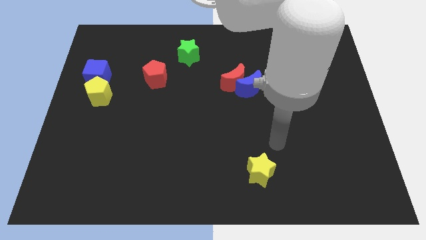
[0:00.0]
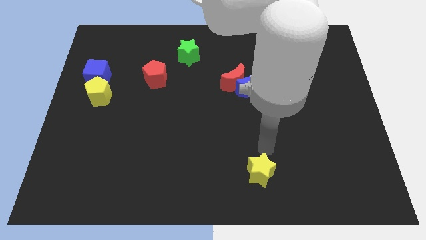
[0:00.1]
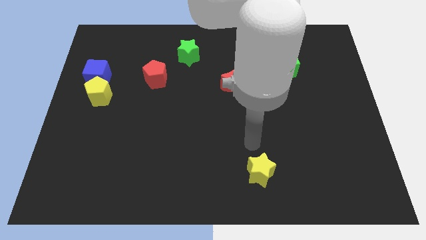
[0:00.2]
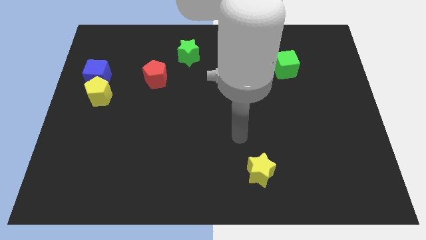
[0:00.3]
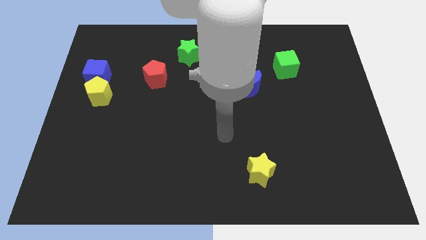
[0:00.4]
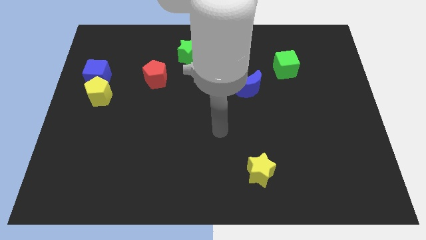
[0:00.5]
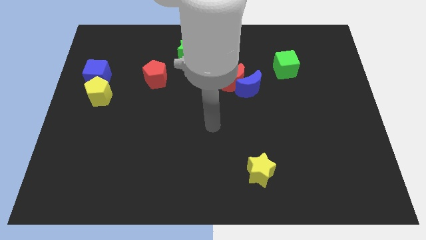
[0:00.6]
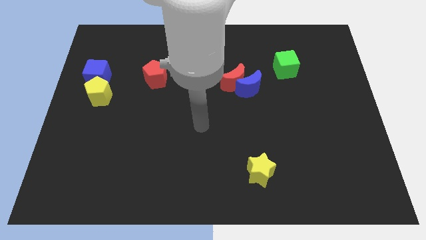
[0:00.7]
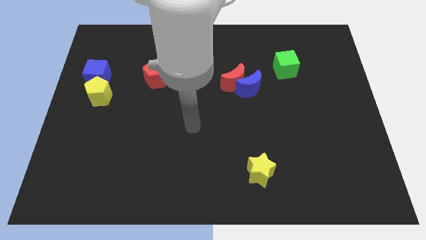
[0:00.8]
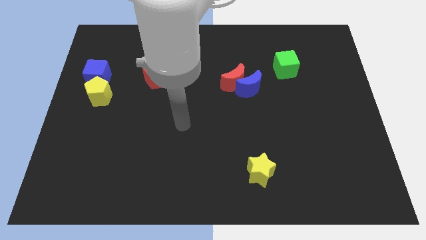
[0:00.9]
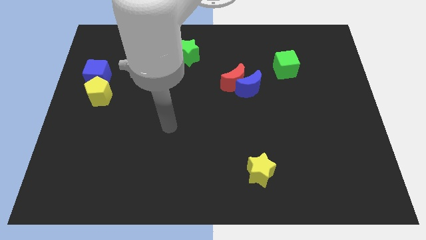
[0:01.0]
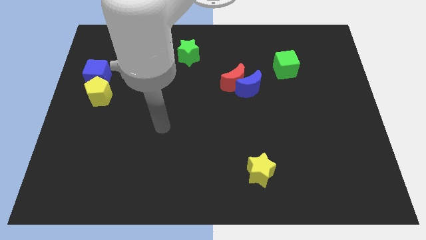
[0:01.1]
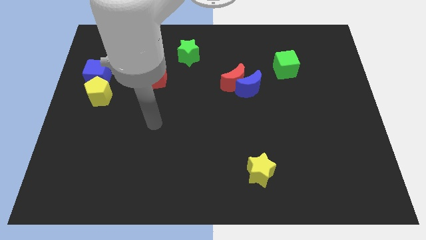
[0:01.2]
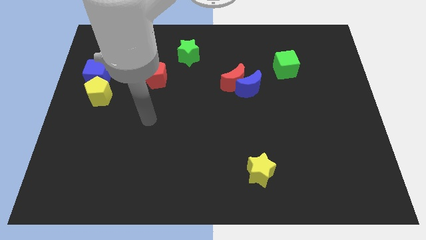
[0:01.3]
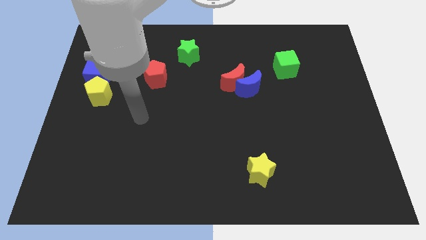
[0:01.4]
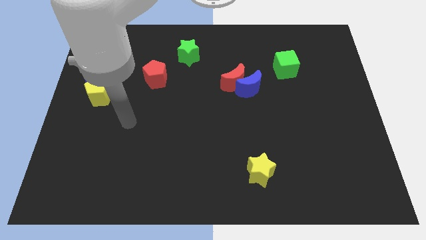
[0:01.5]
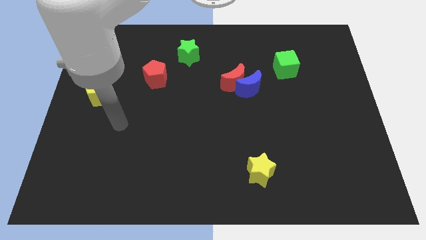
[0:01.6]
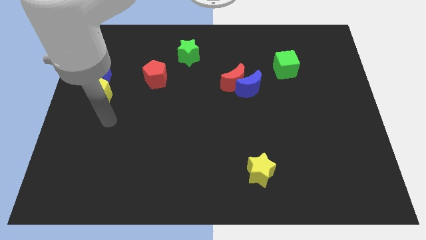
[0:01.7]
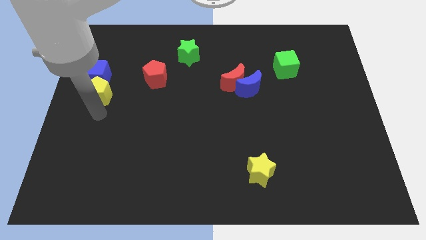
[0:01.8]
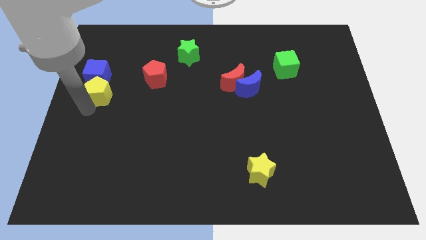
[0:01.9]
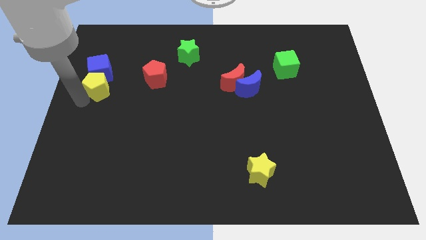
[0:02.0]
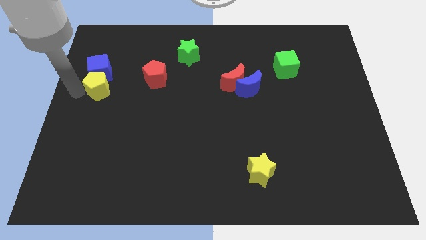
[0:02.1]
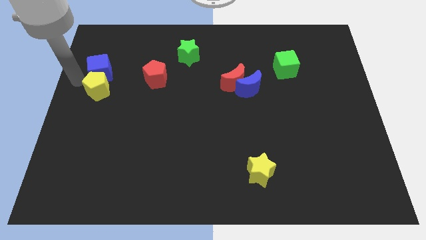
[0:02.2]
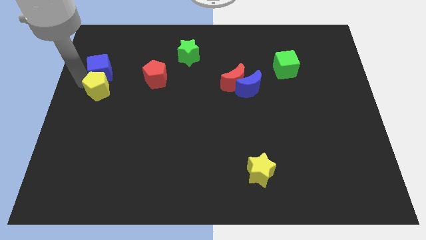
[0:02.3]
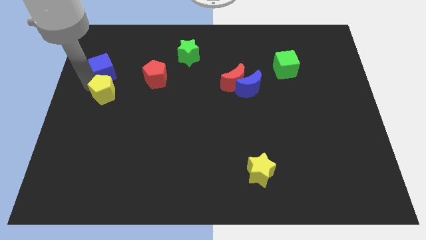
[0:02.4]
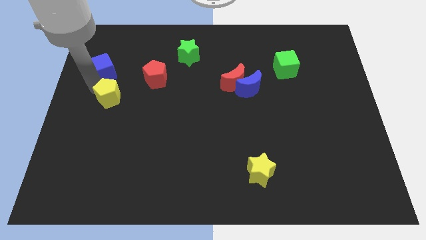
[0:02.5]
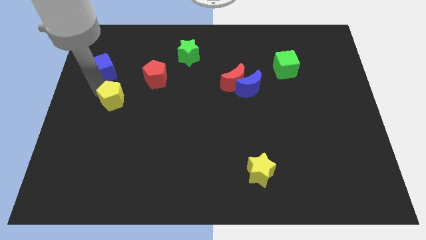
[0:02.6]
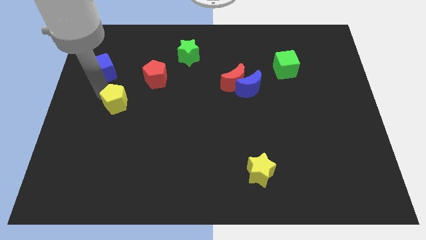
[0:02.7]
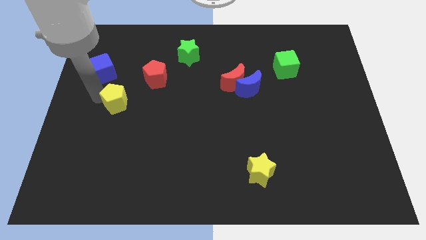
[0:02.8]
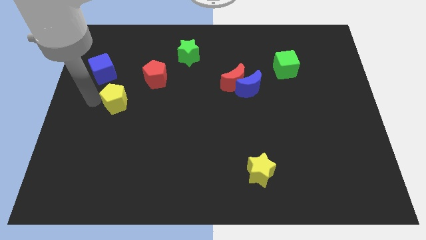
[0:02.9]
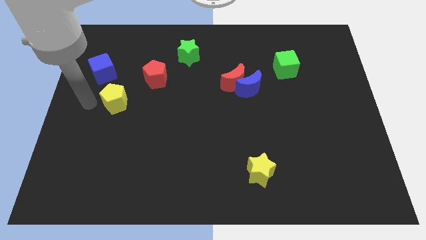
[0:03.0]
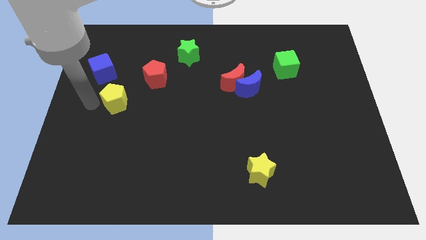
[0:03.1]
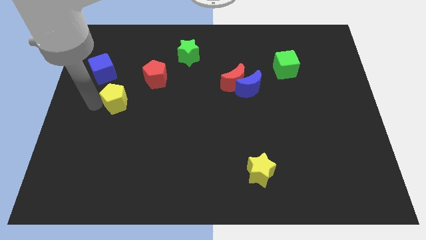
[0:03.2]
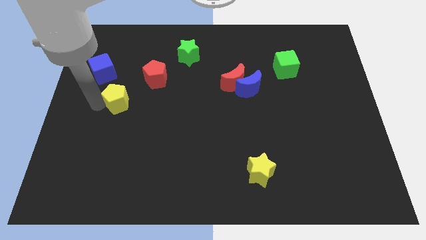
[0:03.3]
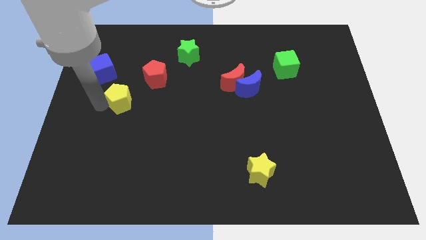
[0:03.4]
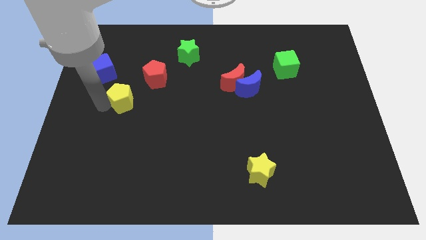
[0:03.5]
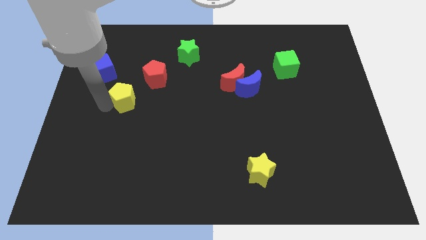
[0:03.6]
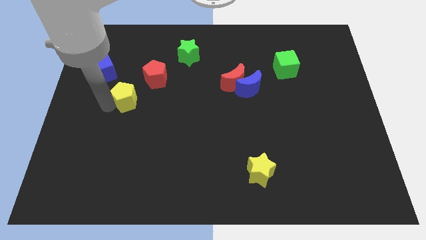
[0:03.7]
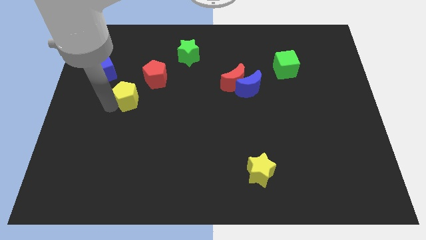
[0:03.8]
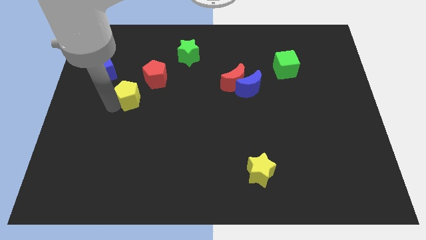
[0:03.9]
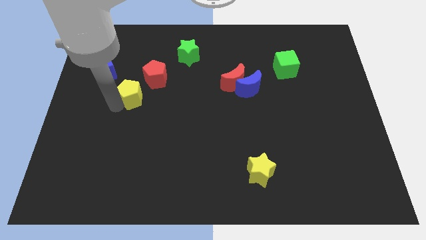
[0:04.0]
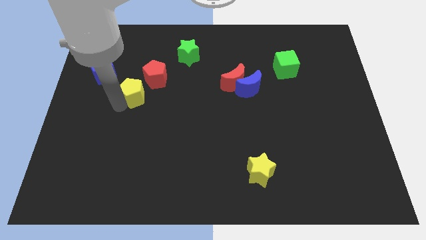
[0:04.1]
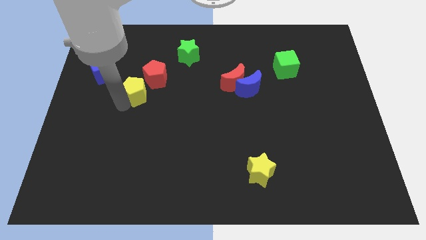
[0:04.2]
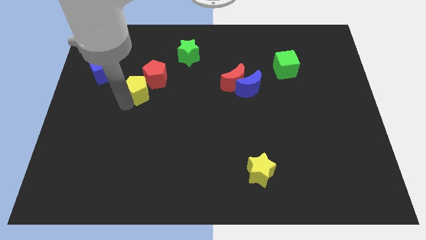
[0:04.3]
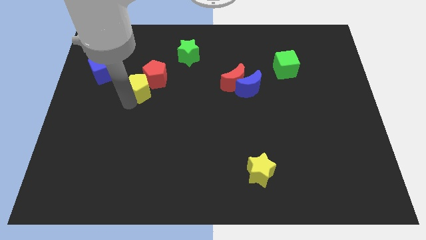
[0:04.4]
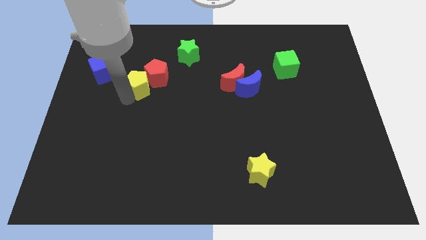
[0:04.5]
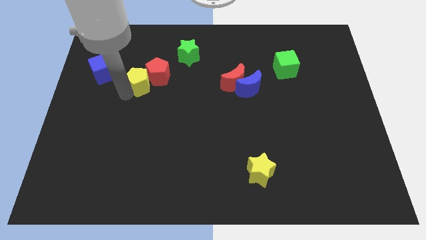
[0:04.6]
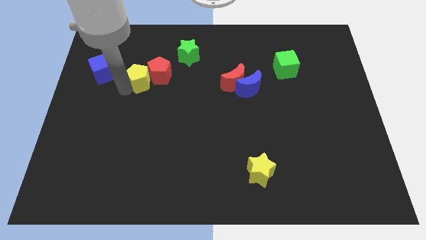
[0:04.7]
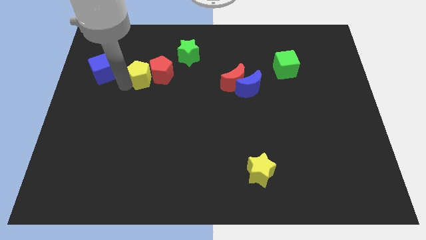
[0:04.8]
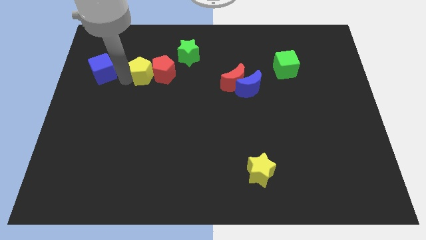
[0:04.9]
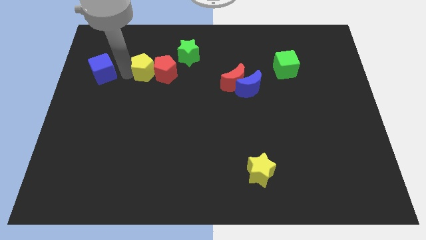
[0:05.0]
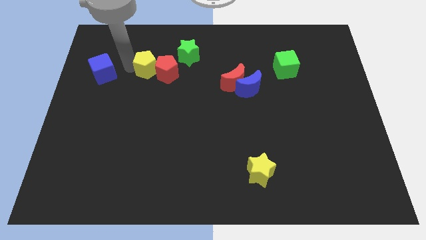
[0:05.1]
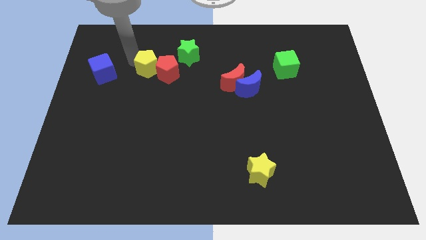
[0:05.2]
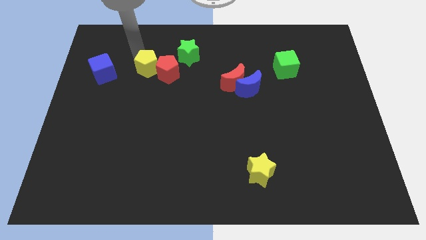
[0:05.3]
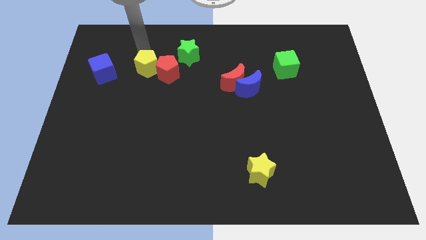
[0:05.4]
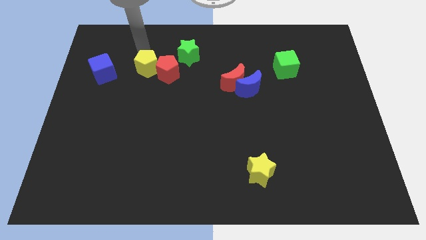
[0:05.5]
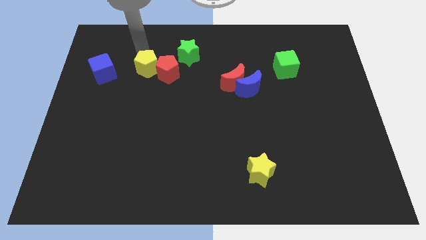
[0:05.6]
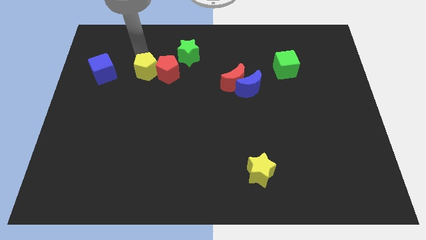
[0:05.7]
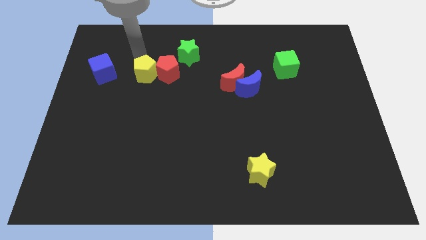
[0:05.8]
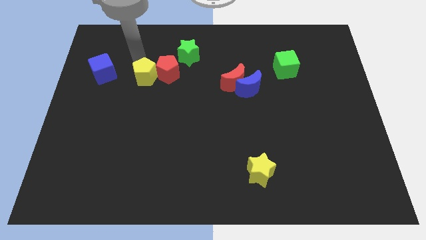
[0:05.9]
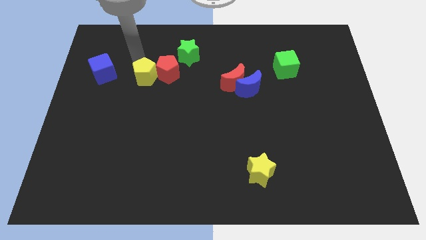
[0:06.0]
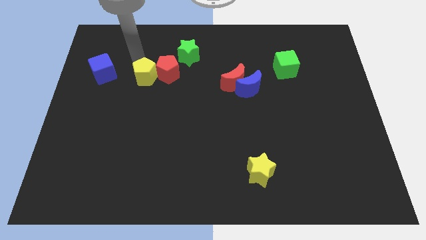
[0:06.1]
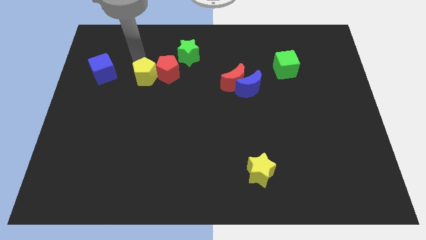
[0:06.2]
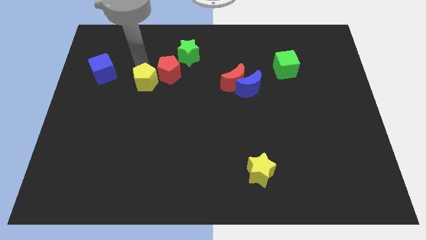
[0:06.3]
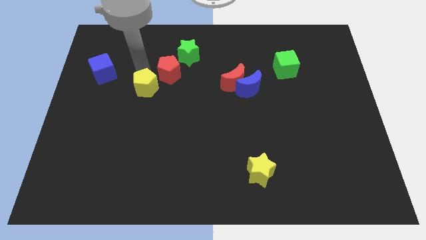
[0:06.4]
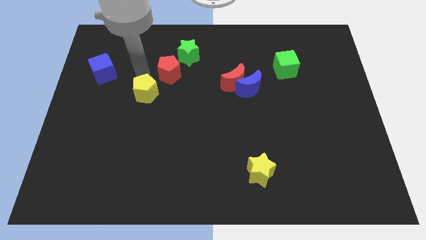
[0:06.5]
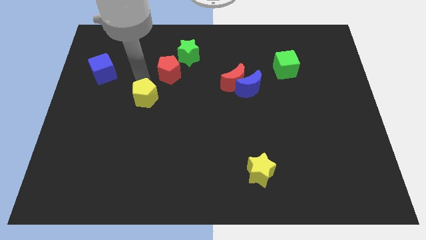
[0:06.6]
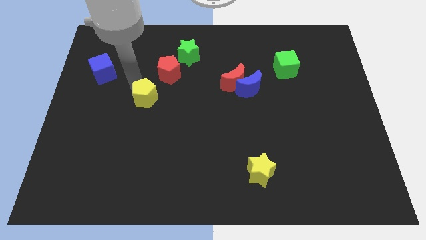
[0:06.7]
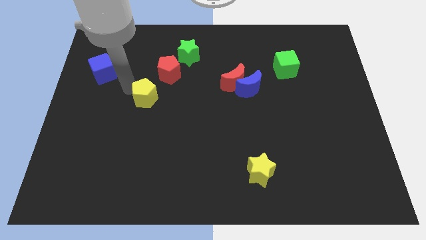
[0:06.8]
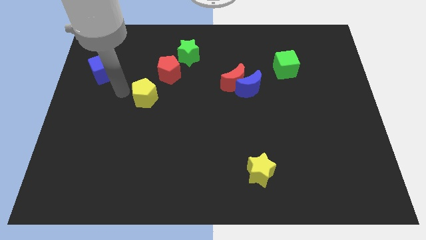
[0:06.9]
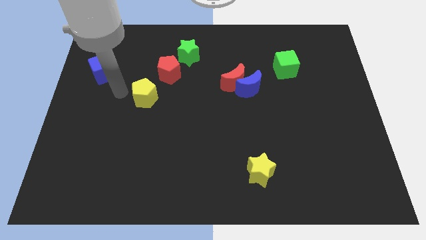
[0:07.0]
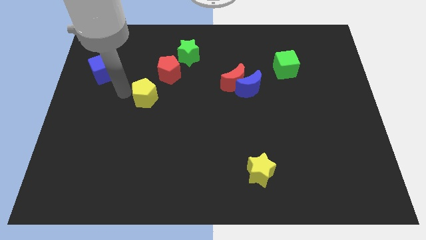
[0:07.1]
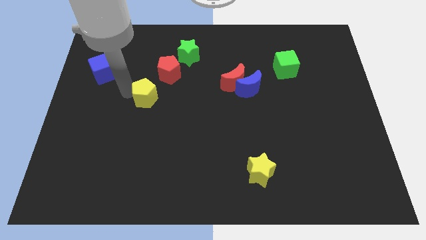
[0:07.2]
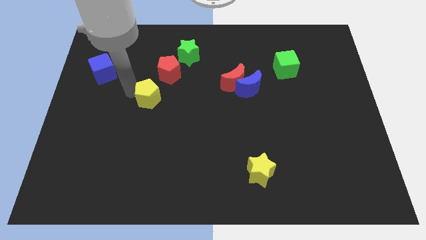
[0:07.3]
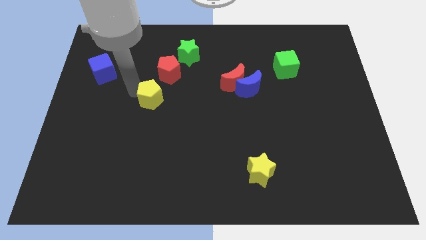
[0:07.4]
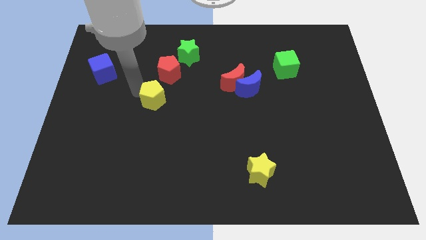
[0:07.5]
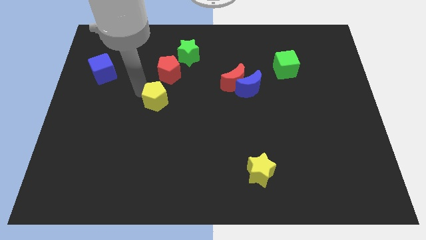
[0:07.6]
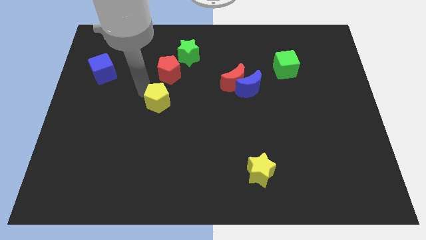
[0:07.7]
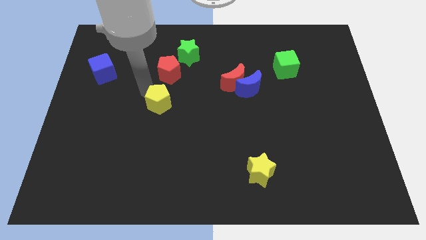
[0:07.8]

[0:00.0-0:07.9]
push the yellow pentagon to the middle
